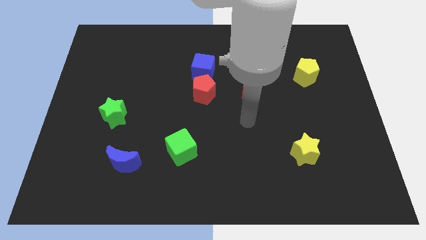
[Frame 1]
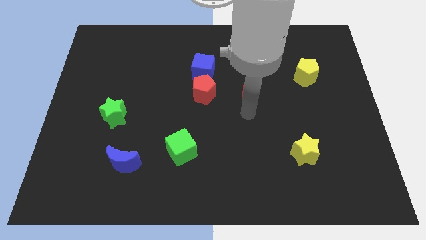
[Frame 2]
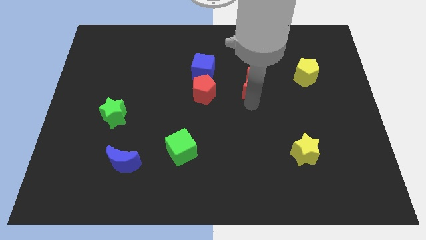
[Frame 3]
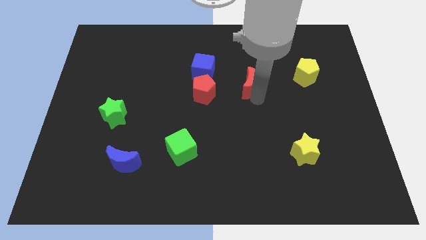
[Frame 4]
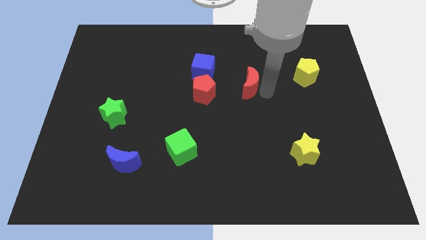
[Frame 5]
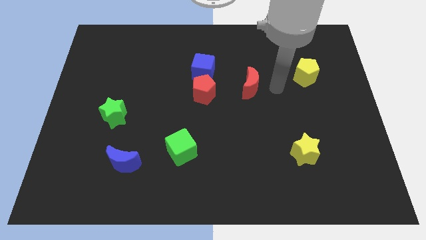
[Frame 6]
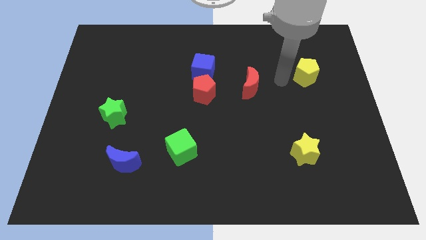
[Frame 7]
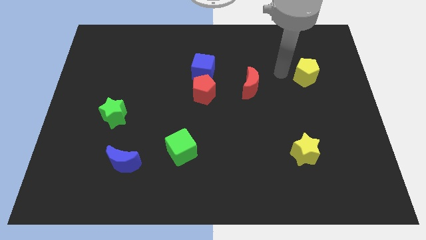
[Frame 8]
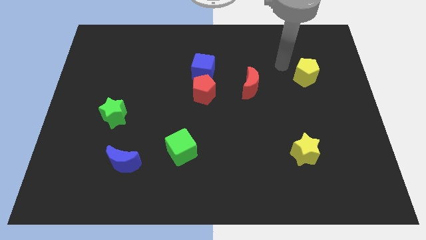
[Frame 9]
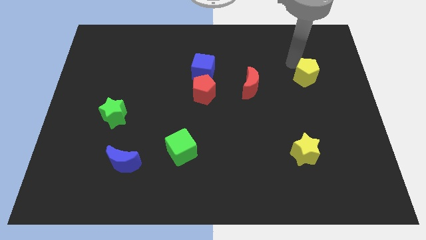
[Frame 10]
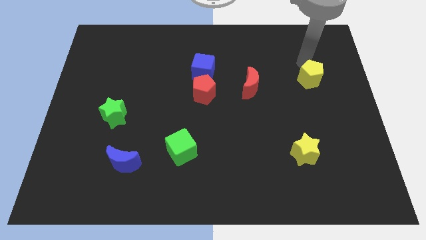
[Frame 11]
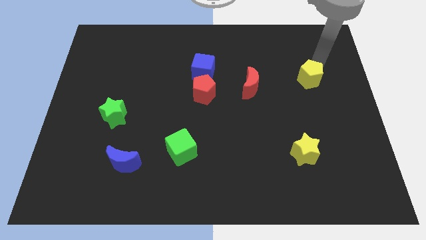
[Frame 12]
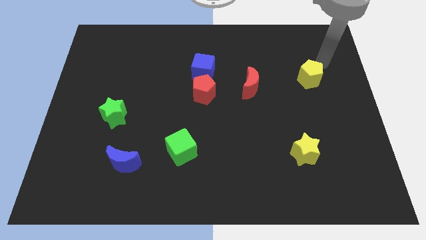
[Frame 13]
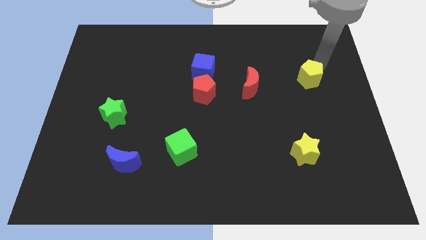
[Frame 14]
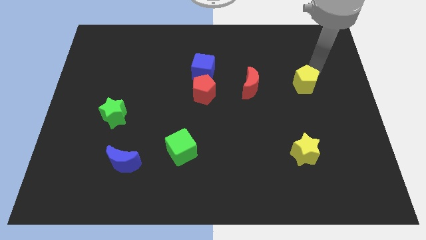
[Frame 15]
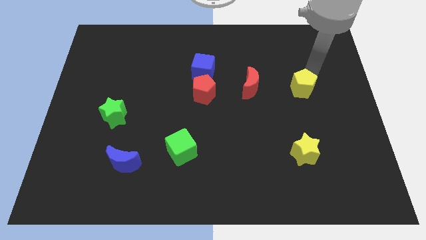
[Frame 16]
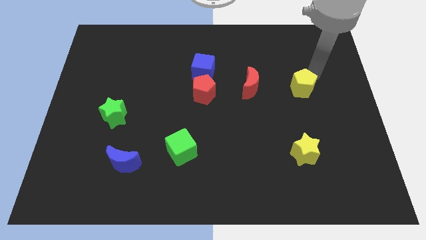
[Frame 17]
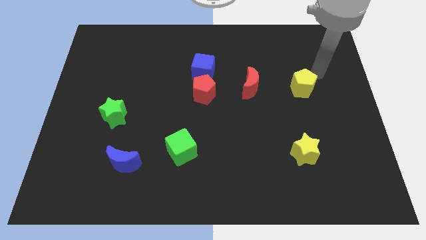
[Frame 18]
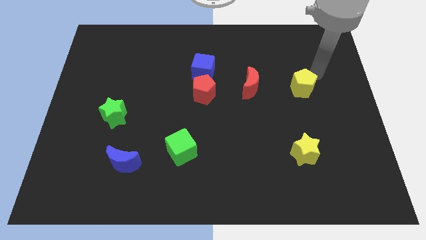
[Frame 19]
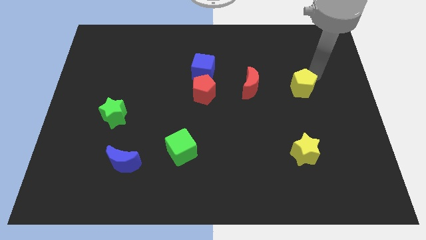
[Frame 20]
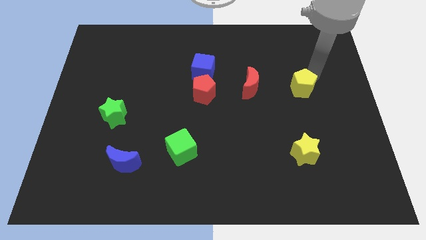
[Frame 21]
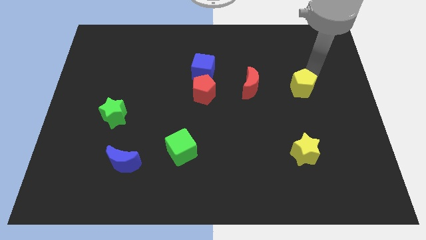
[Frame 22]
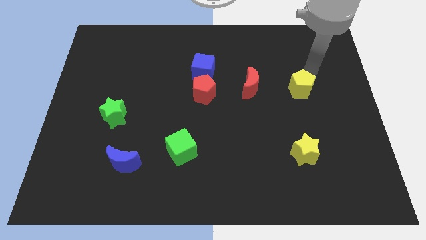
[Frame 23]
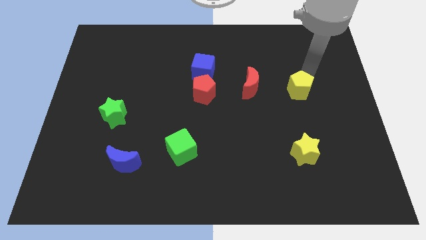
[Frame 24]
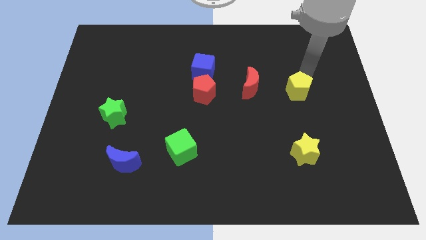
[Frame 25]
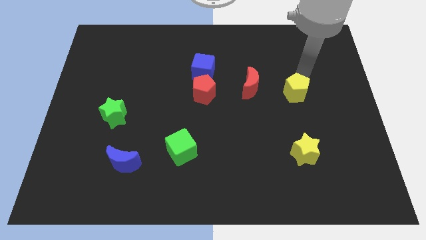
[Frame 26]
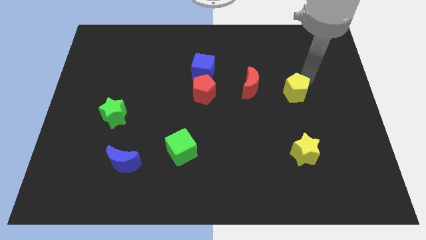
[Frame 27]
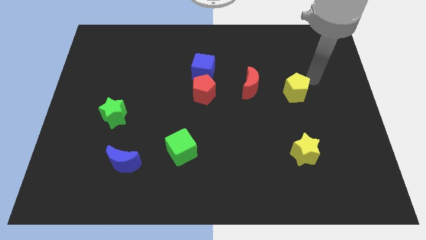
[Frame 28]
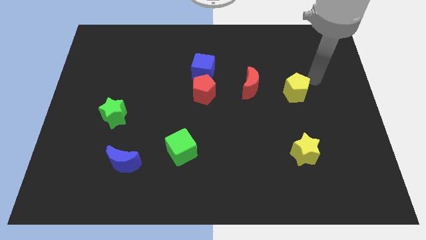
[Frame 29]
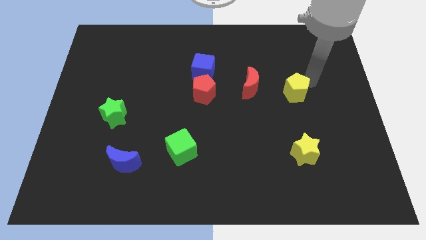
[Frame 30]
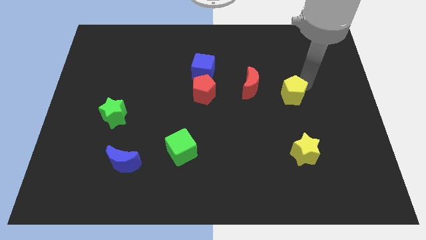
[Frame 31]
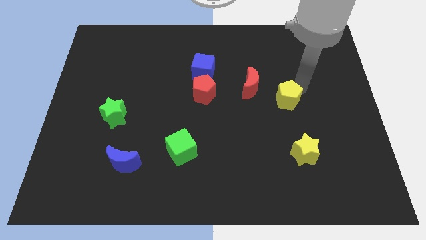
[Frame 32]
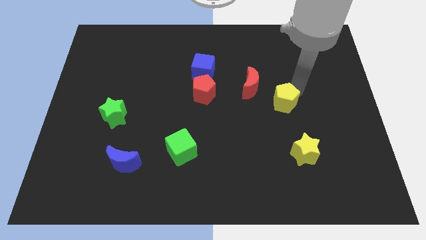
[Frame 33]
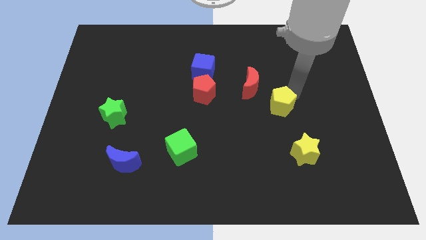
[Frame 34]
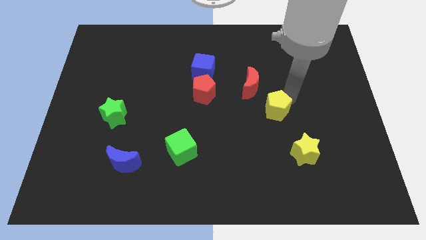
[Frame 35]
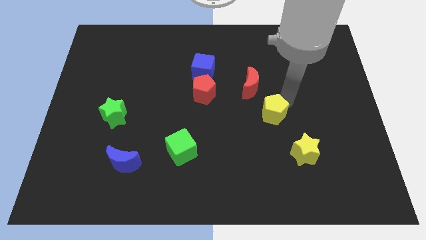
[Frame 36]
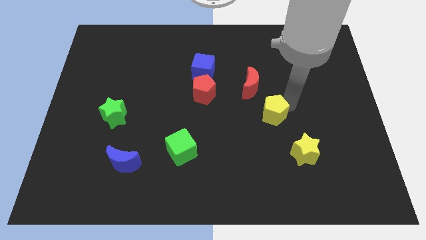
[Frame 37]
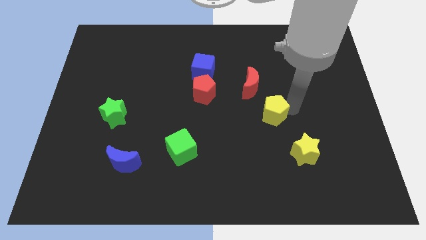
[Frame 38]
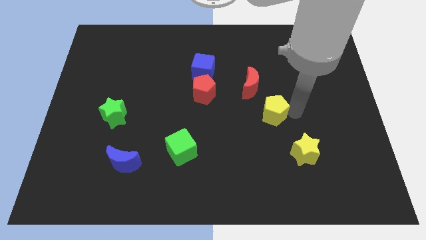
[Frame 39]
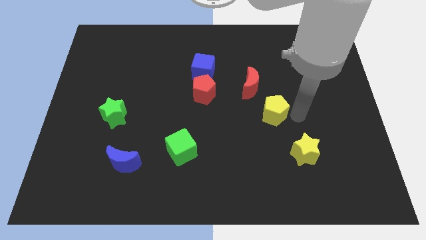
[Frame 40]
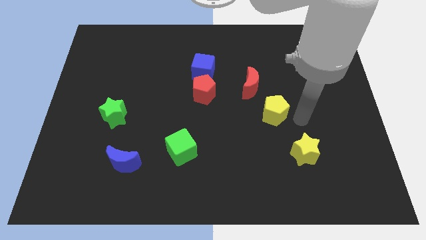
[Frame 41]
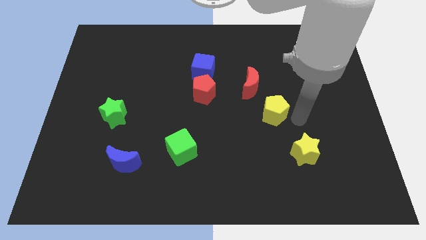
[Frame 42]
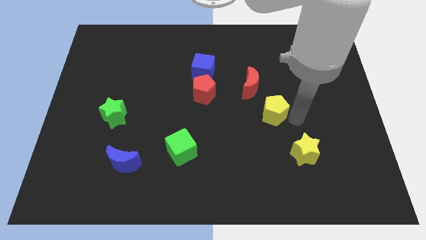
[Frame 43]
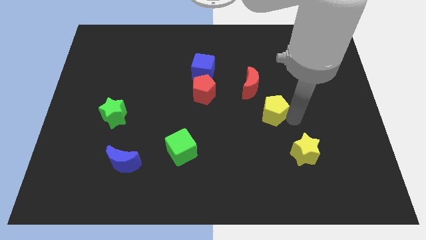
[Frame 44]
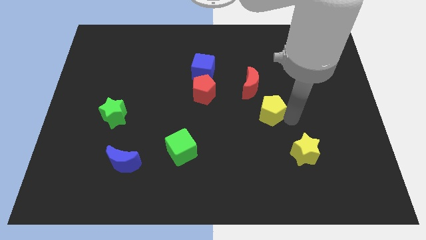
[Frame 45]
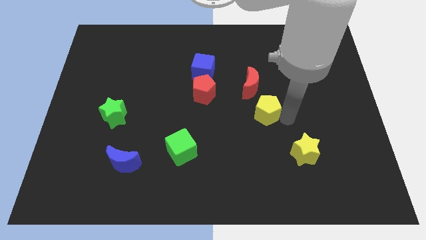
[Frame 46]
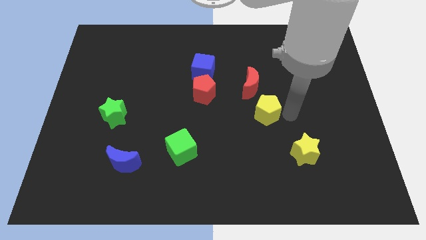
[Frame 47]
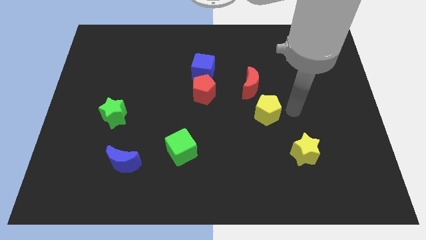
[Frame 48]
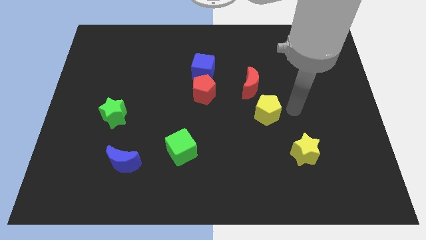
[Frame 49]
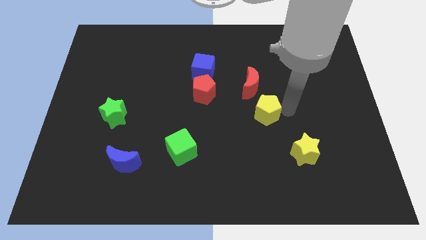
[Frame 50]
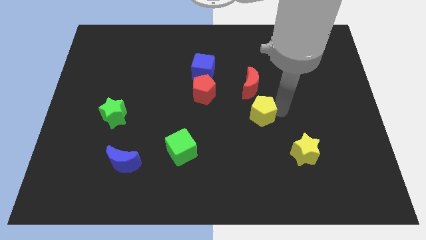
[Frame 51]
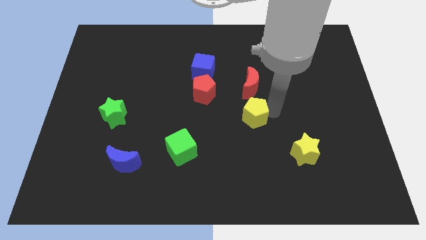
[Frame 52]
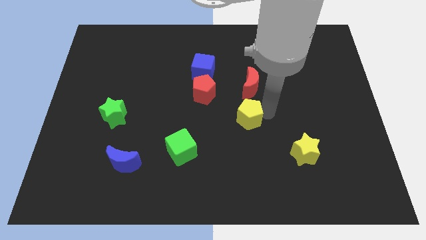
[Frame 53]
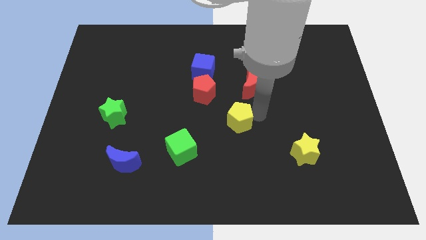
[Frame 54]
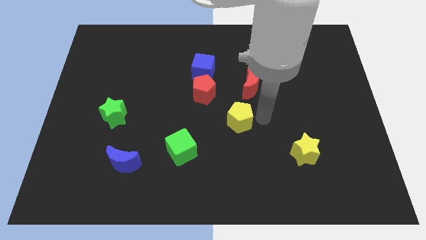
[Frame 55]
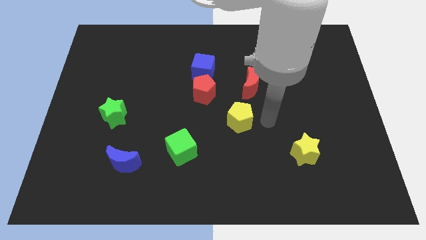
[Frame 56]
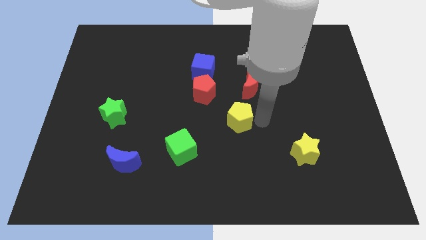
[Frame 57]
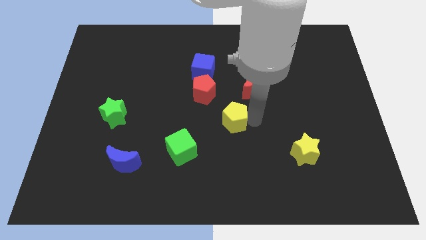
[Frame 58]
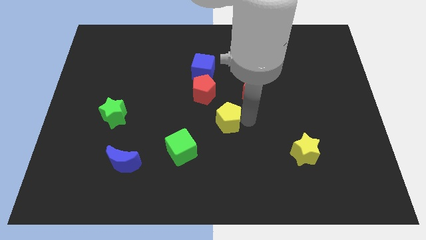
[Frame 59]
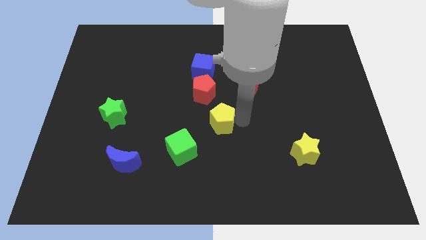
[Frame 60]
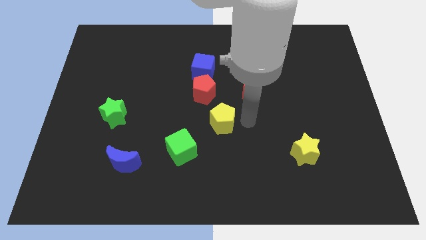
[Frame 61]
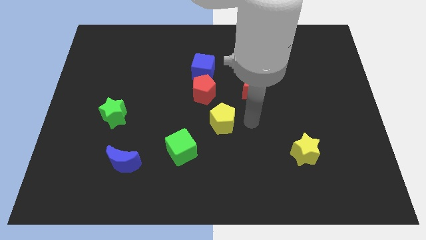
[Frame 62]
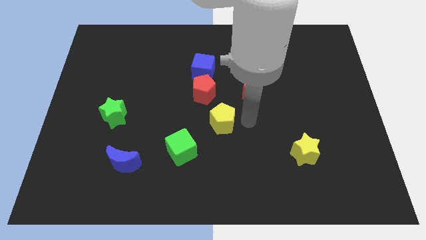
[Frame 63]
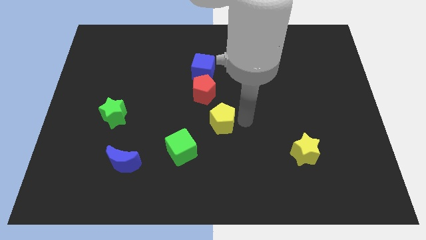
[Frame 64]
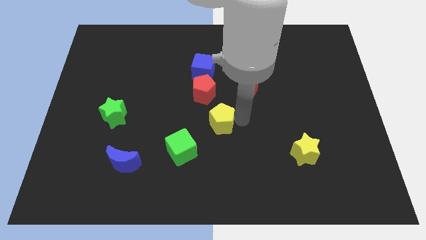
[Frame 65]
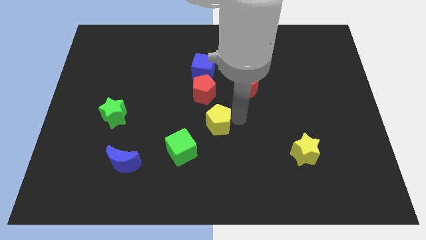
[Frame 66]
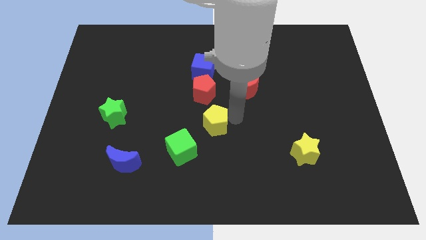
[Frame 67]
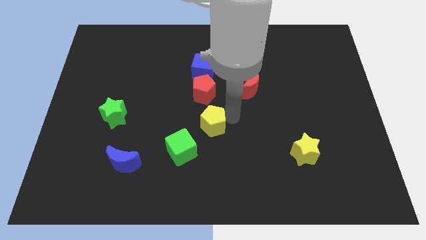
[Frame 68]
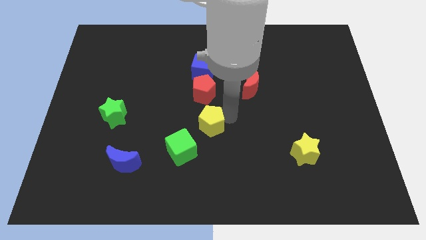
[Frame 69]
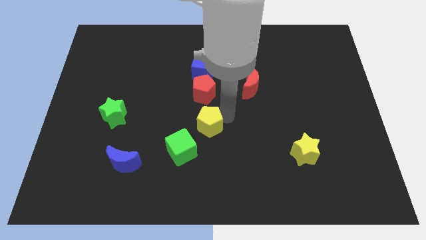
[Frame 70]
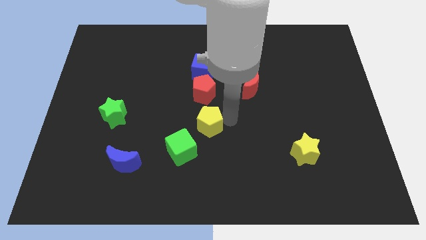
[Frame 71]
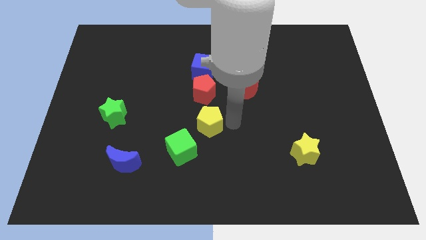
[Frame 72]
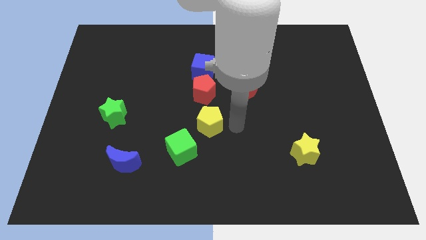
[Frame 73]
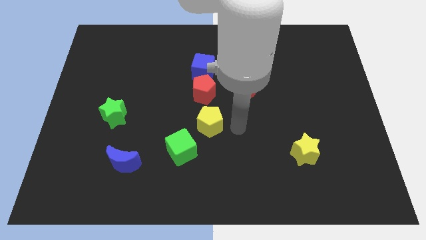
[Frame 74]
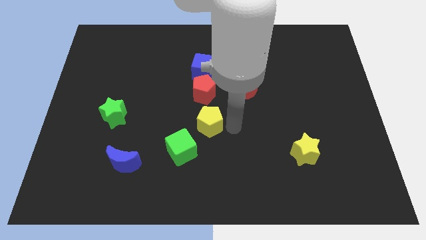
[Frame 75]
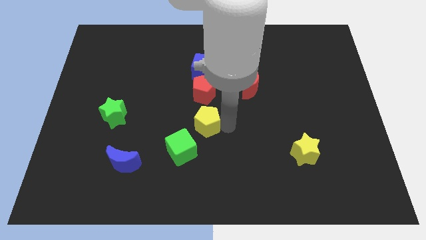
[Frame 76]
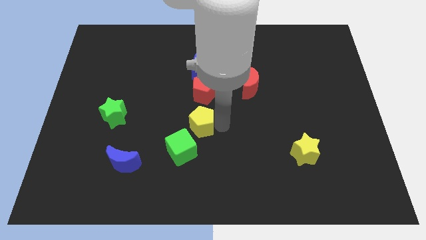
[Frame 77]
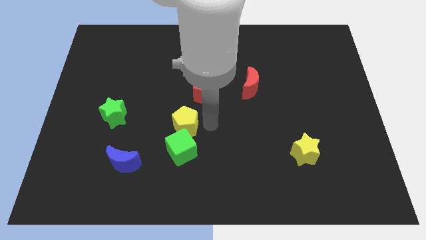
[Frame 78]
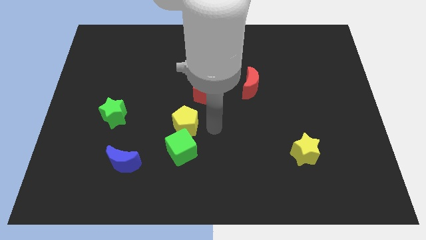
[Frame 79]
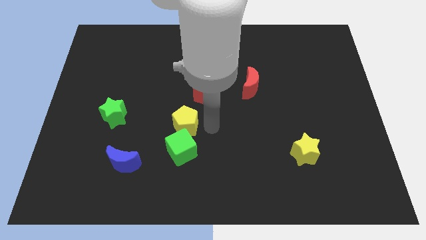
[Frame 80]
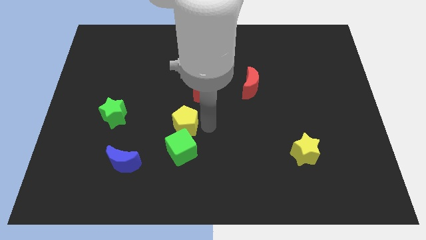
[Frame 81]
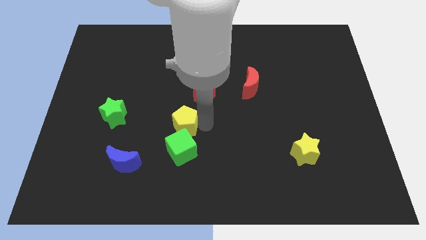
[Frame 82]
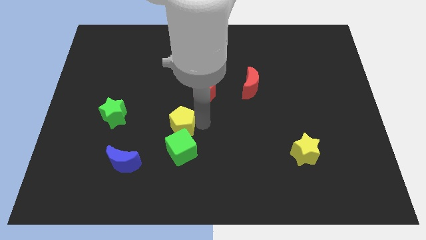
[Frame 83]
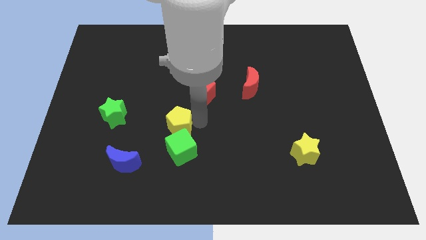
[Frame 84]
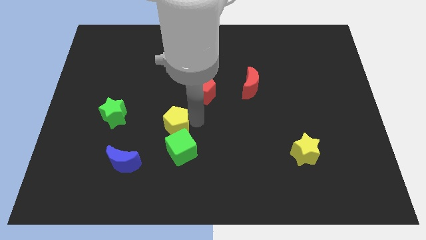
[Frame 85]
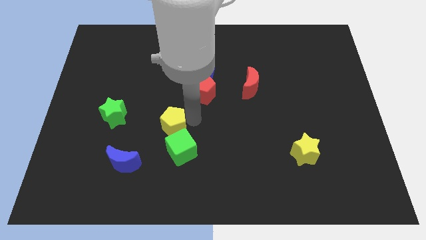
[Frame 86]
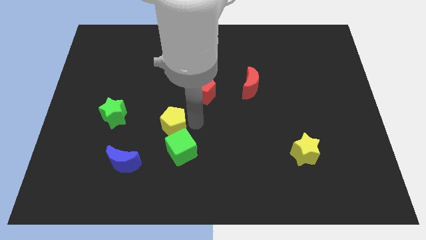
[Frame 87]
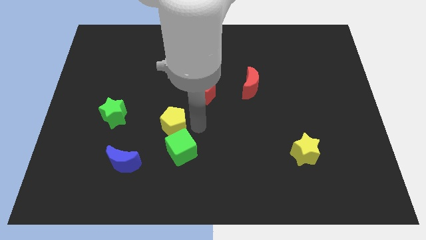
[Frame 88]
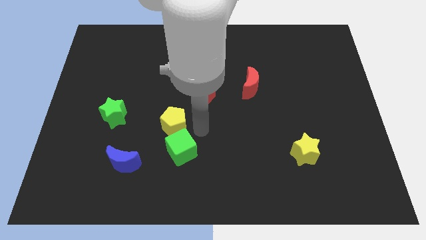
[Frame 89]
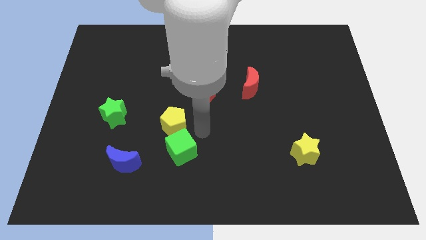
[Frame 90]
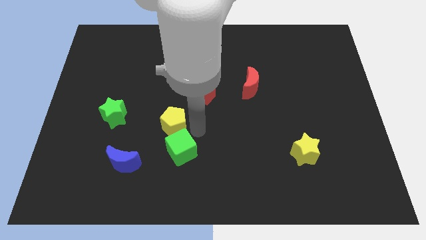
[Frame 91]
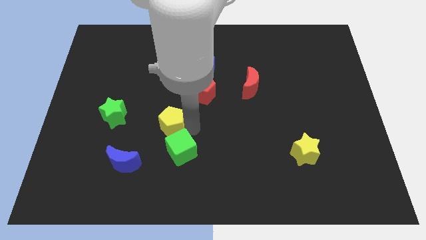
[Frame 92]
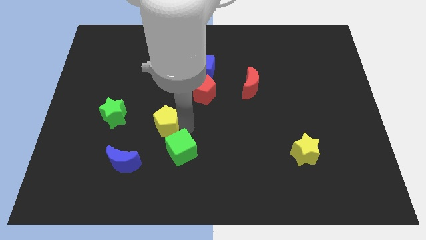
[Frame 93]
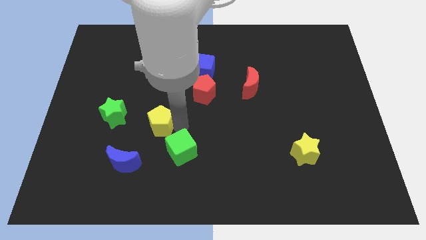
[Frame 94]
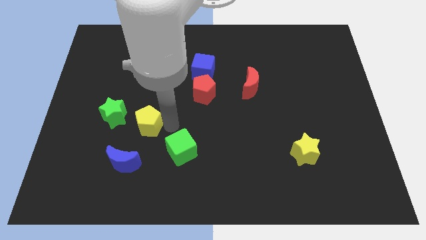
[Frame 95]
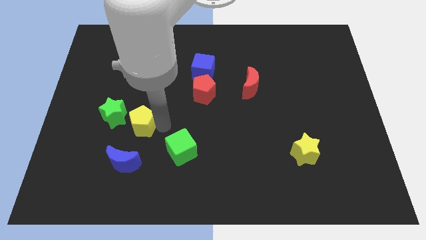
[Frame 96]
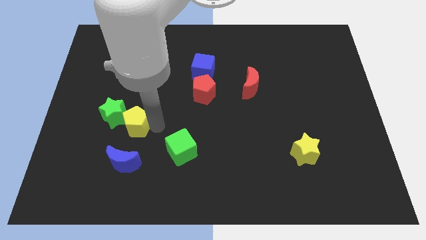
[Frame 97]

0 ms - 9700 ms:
put the yellow pentagon next to the green star
